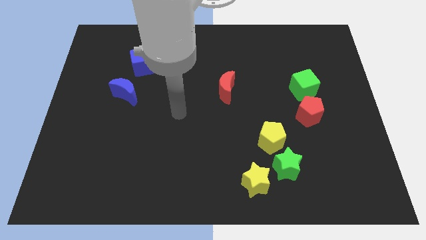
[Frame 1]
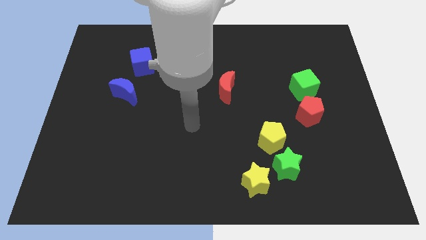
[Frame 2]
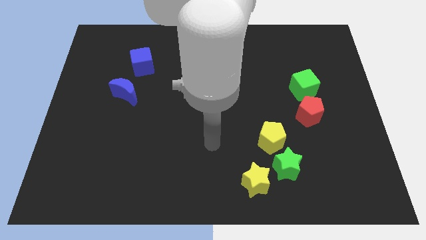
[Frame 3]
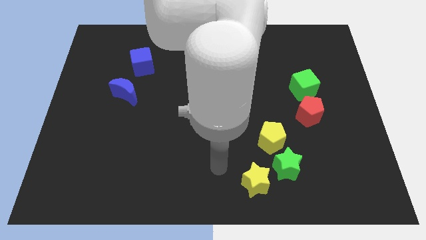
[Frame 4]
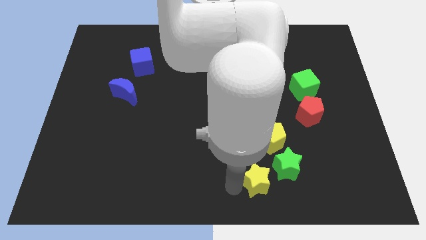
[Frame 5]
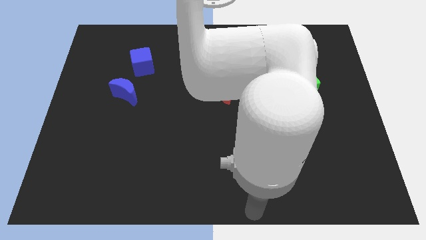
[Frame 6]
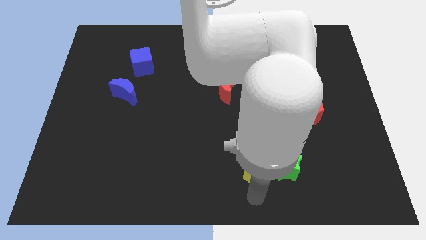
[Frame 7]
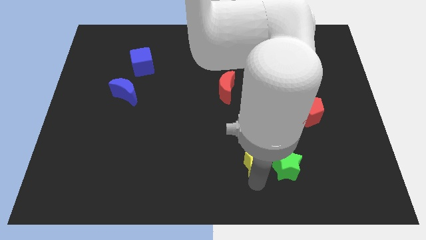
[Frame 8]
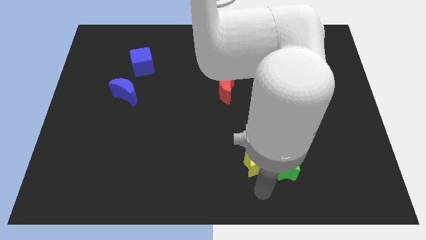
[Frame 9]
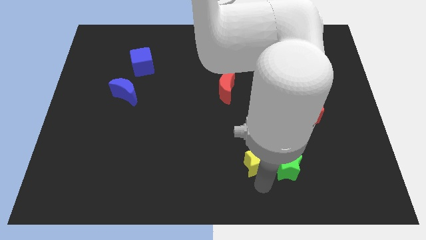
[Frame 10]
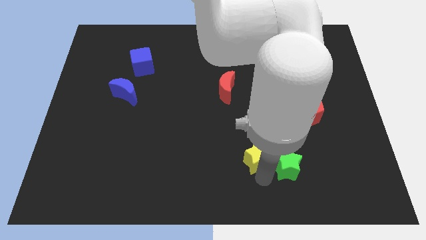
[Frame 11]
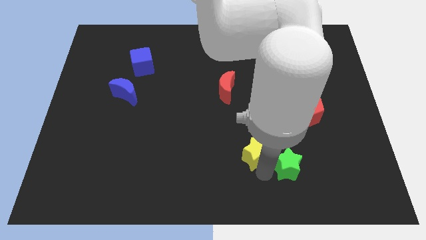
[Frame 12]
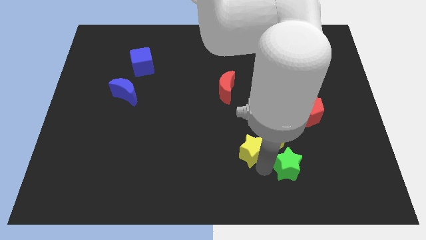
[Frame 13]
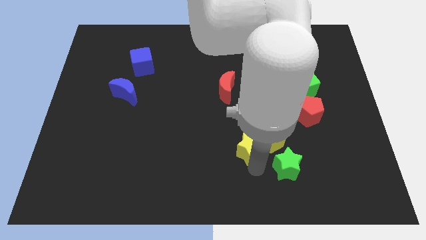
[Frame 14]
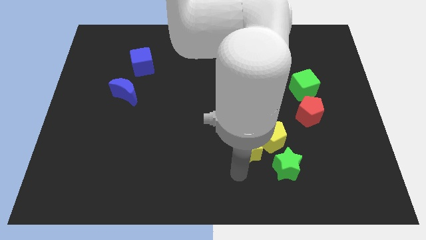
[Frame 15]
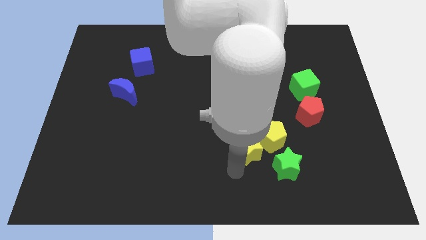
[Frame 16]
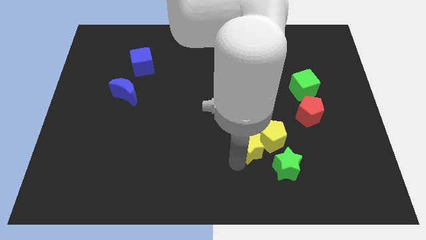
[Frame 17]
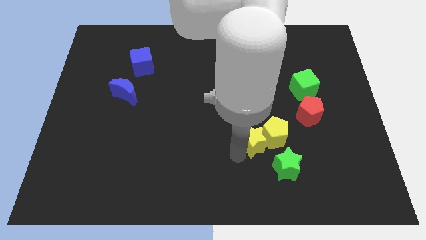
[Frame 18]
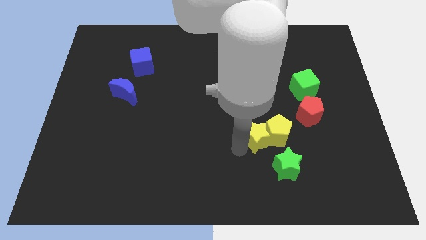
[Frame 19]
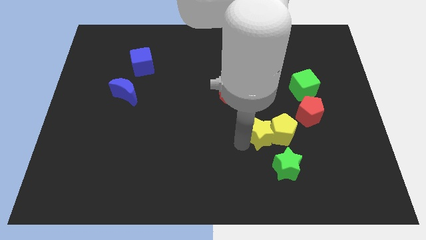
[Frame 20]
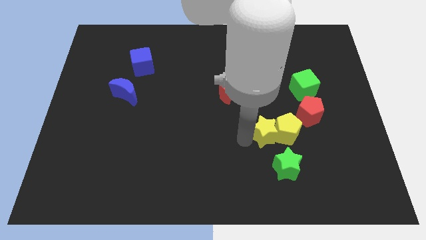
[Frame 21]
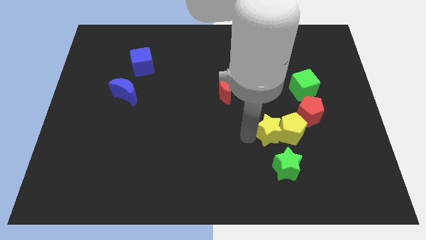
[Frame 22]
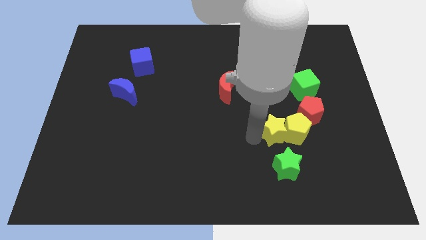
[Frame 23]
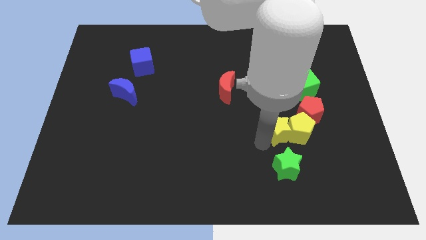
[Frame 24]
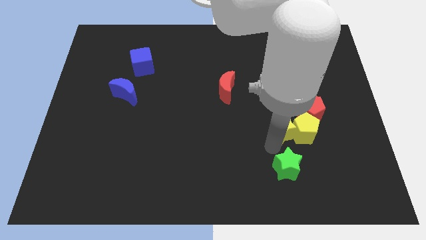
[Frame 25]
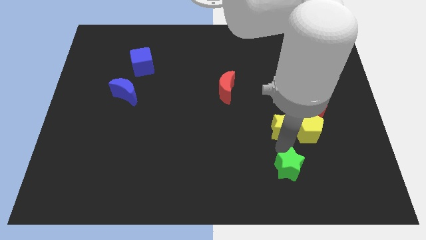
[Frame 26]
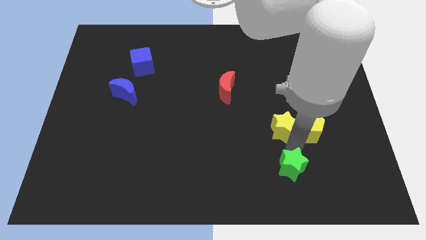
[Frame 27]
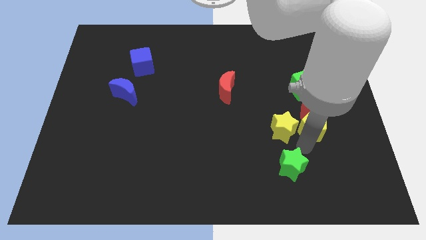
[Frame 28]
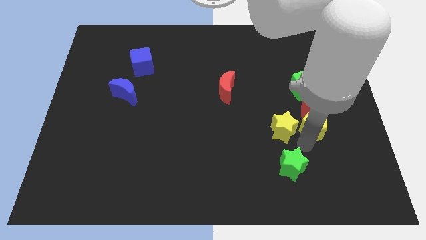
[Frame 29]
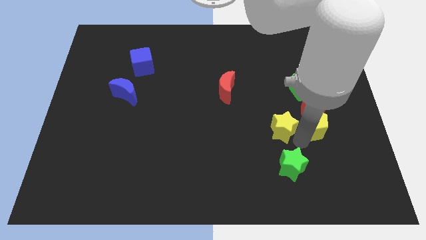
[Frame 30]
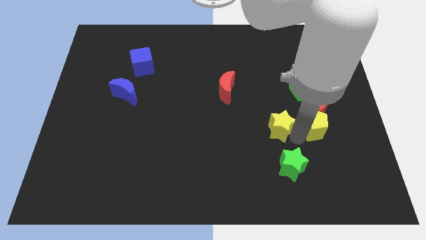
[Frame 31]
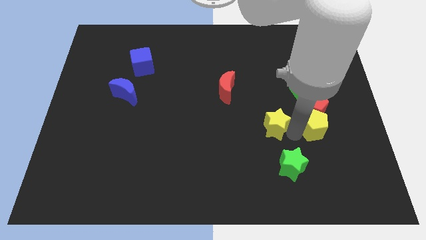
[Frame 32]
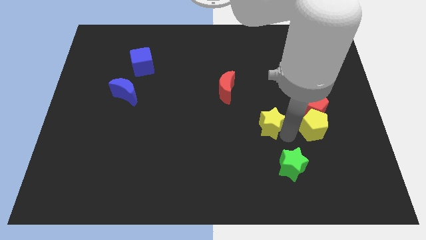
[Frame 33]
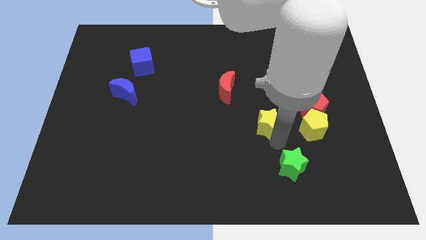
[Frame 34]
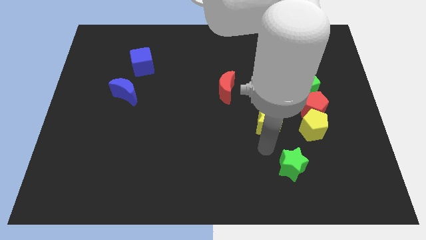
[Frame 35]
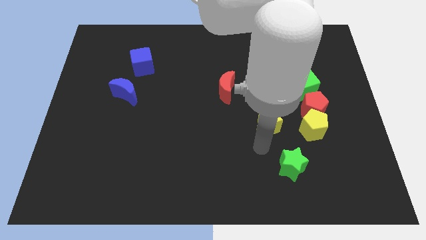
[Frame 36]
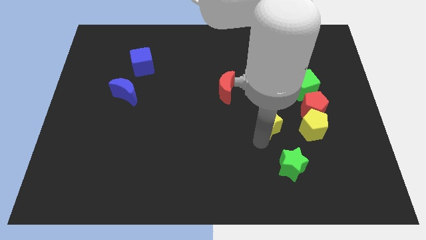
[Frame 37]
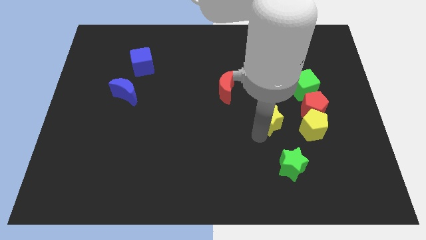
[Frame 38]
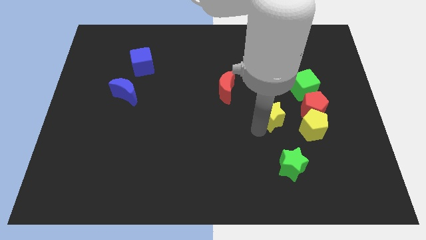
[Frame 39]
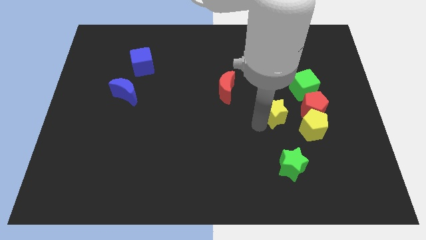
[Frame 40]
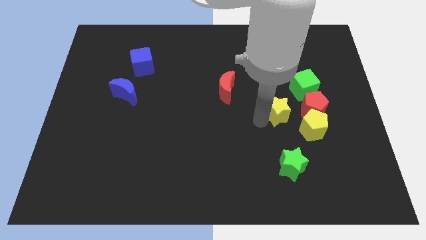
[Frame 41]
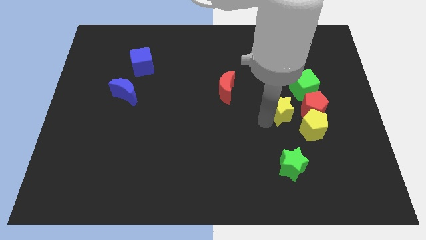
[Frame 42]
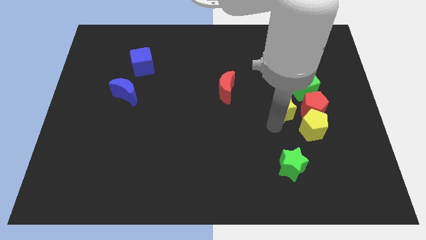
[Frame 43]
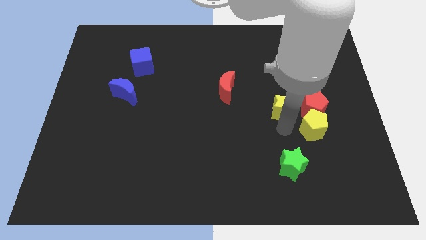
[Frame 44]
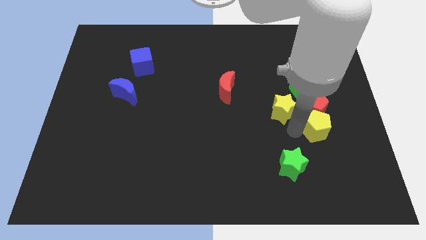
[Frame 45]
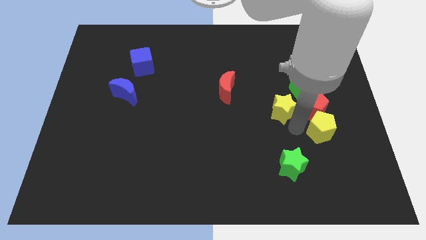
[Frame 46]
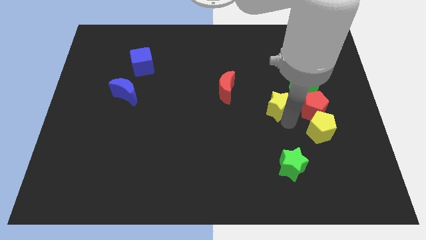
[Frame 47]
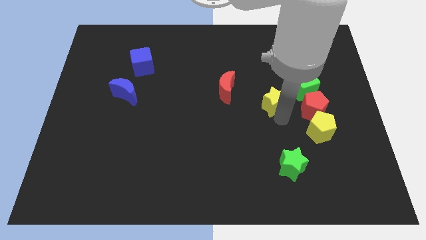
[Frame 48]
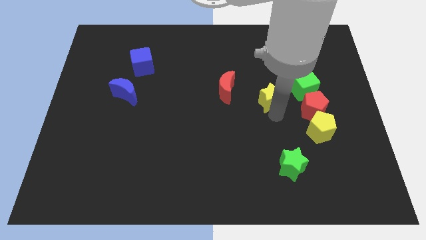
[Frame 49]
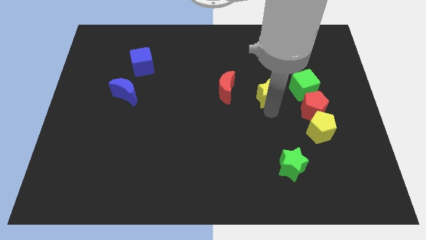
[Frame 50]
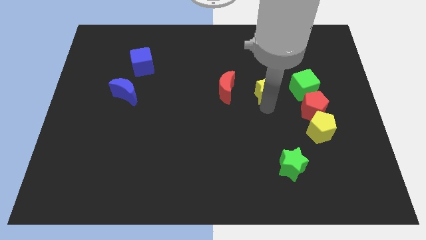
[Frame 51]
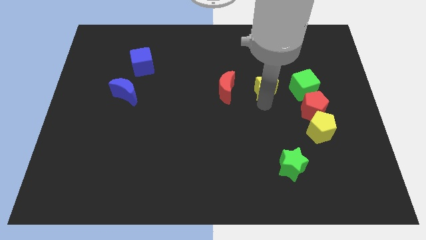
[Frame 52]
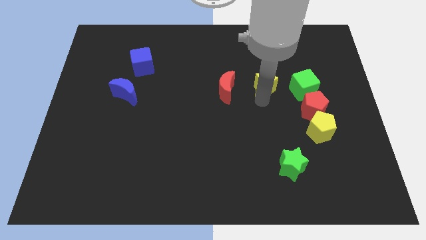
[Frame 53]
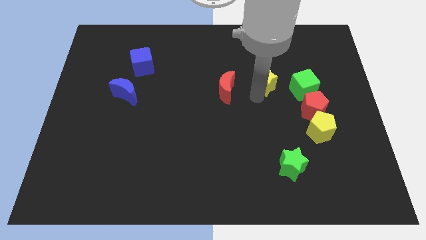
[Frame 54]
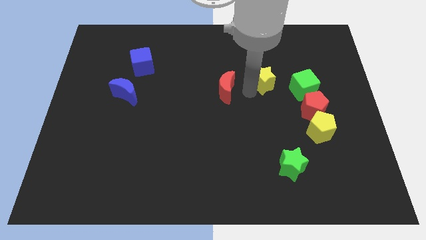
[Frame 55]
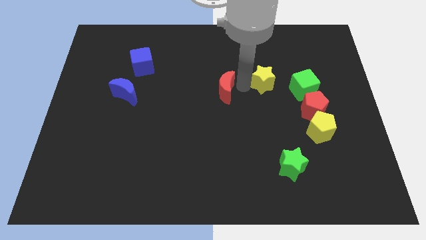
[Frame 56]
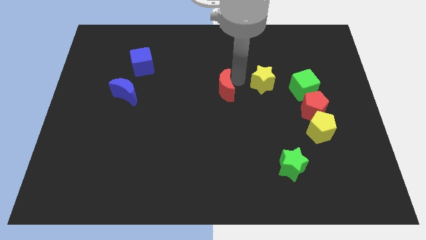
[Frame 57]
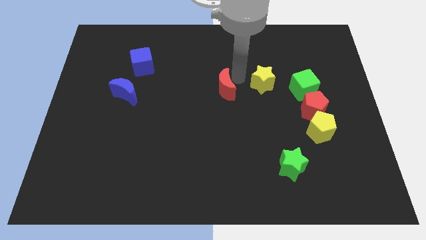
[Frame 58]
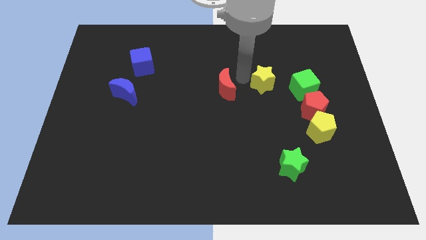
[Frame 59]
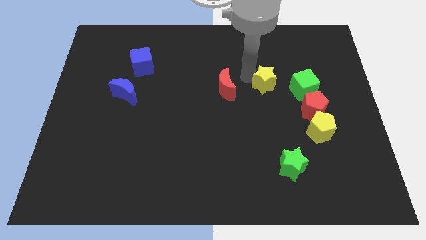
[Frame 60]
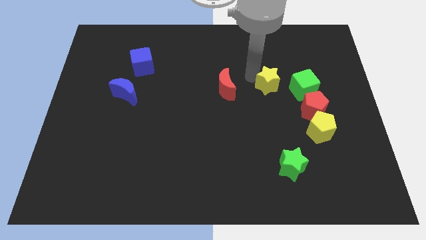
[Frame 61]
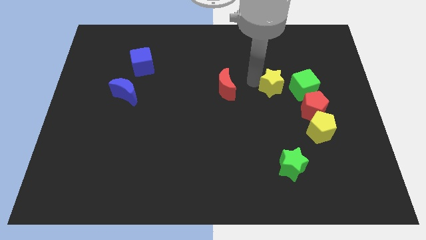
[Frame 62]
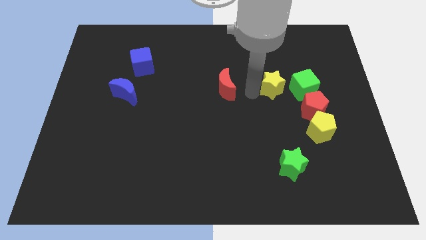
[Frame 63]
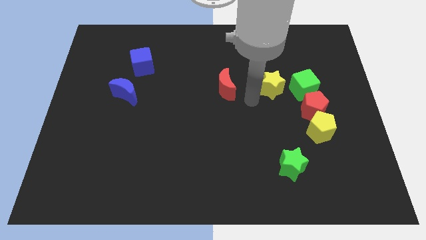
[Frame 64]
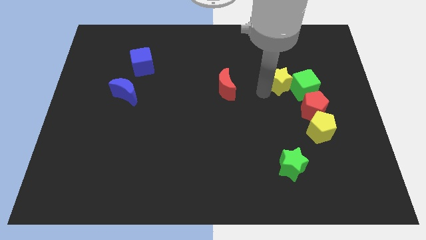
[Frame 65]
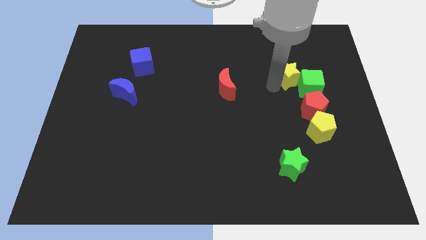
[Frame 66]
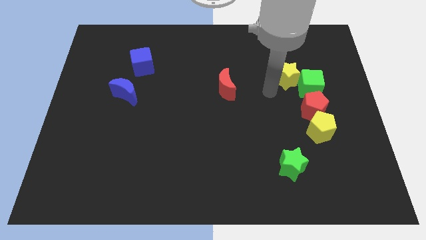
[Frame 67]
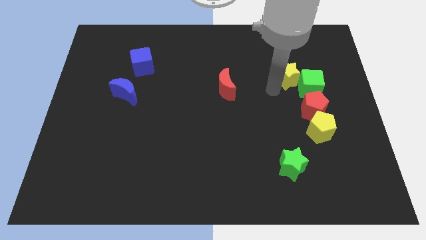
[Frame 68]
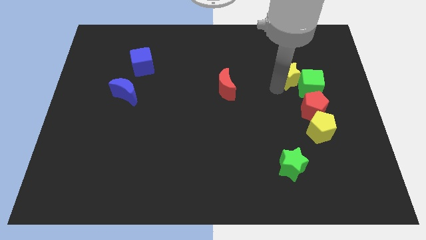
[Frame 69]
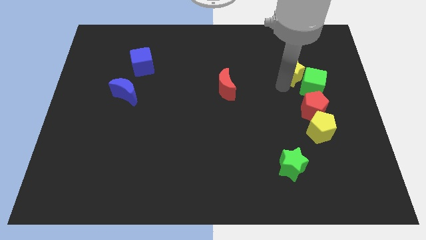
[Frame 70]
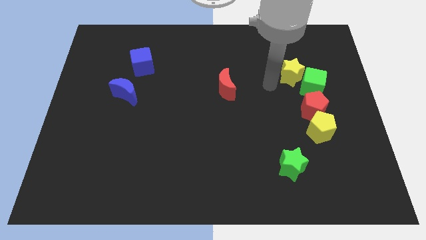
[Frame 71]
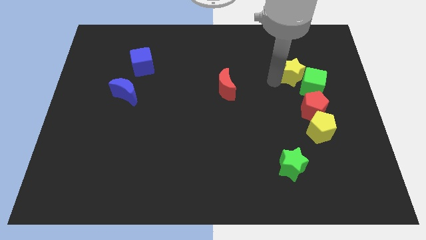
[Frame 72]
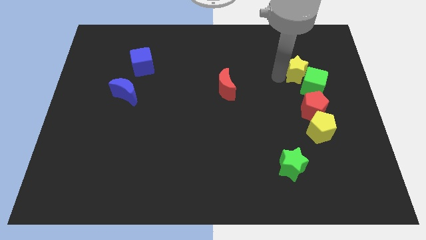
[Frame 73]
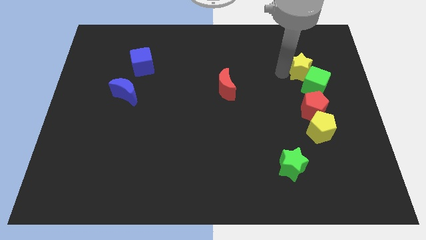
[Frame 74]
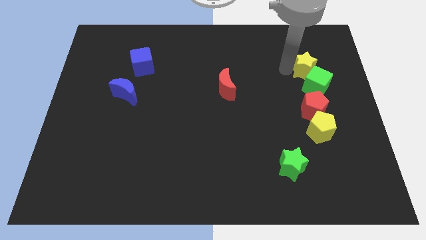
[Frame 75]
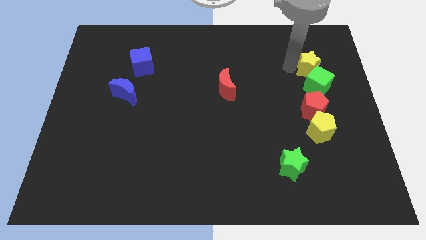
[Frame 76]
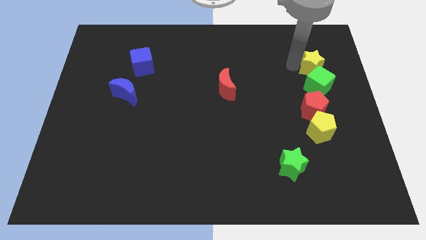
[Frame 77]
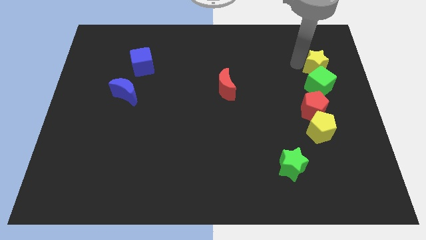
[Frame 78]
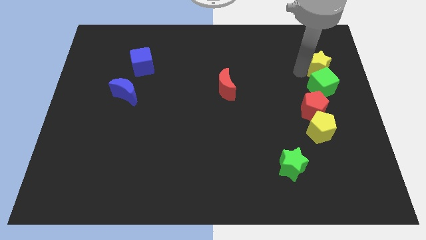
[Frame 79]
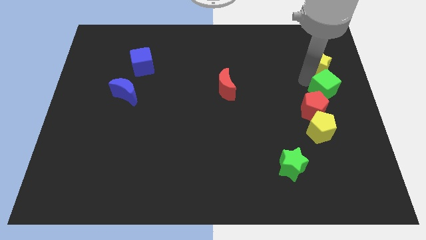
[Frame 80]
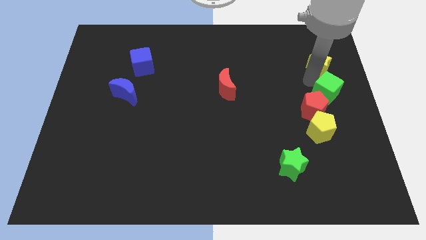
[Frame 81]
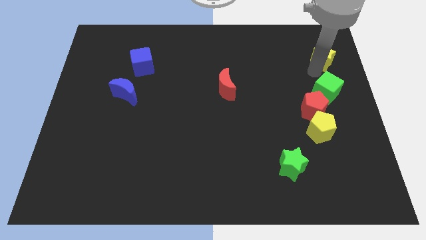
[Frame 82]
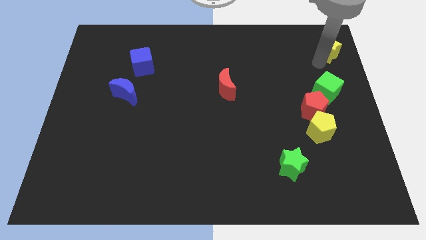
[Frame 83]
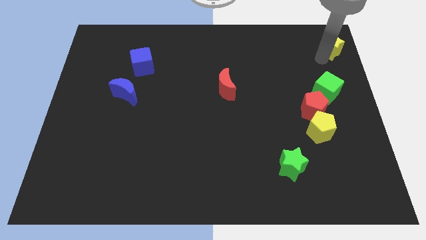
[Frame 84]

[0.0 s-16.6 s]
put the yellow star to the top right of the board
